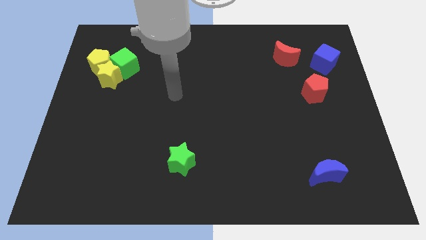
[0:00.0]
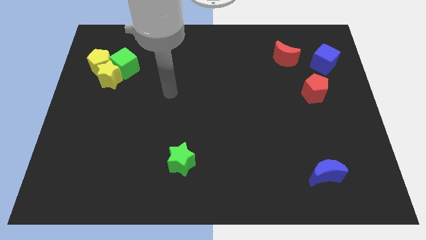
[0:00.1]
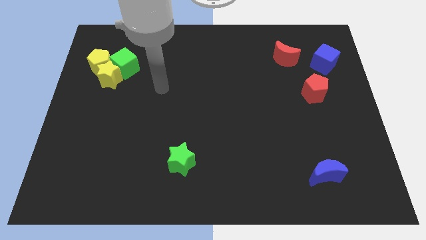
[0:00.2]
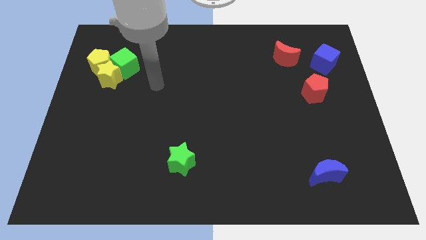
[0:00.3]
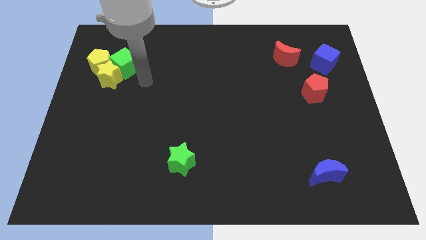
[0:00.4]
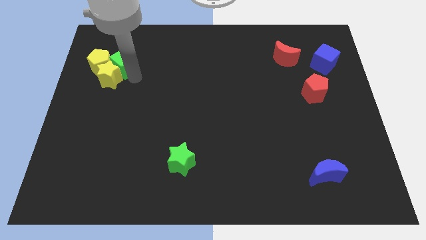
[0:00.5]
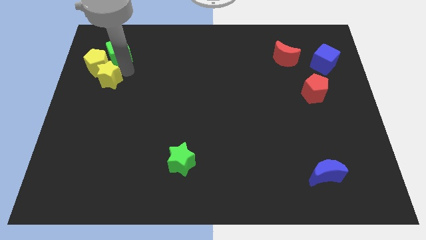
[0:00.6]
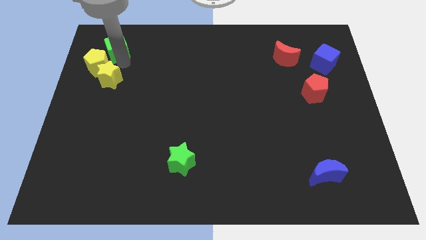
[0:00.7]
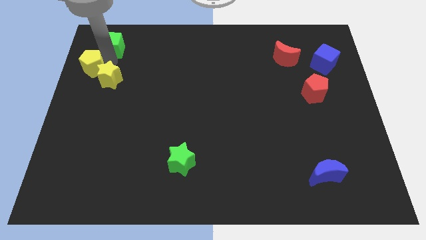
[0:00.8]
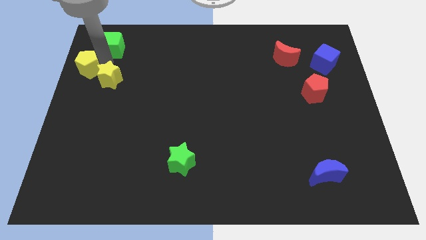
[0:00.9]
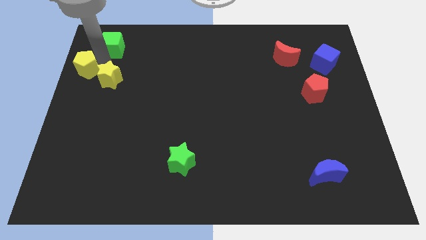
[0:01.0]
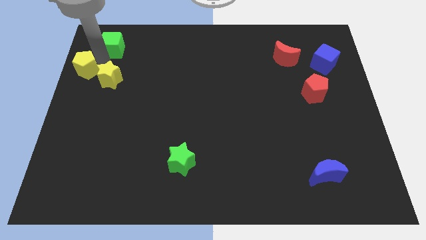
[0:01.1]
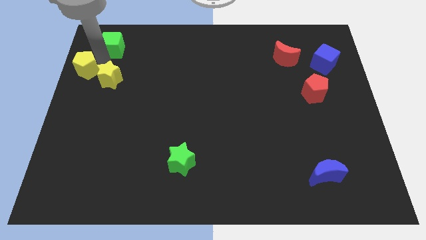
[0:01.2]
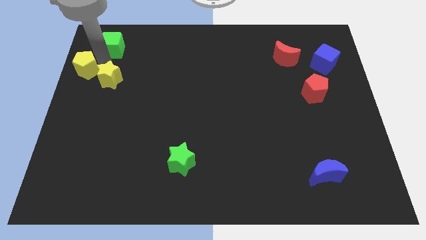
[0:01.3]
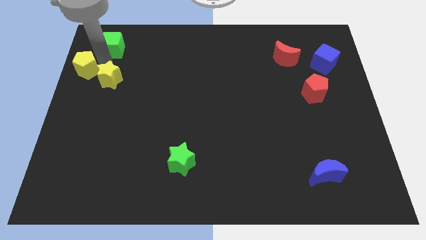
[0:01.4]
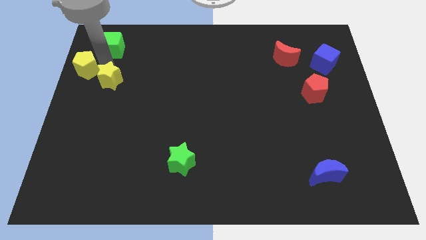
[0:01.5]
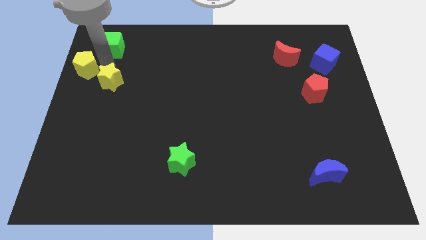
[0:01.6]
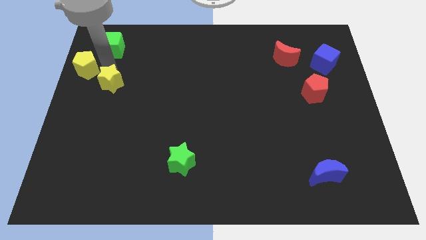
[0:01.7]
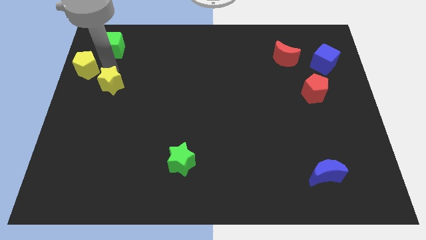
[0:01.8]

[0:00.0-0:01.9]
separate the yellow star from the yellow pentagon and green cube

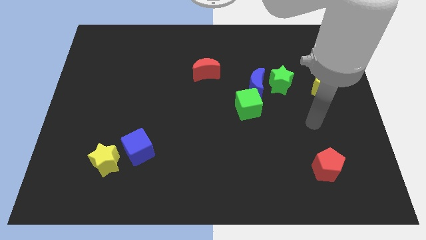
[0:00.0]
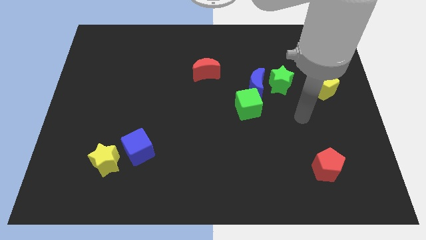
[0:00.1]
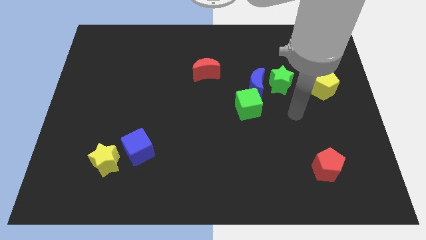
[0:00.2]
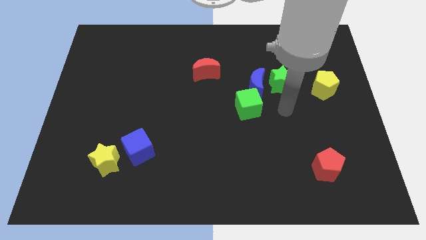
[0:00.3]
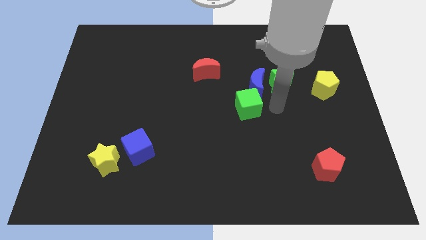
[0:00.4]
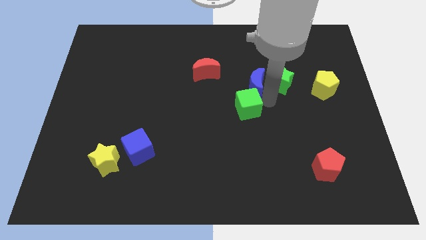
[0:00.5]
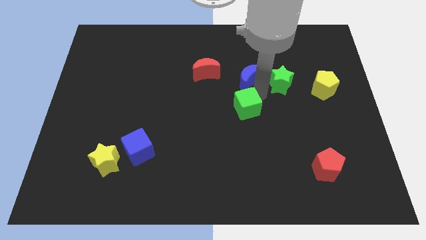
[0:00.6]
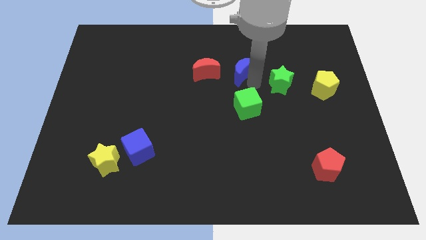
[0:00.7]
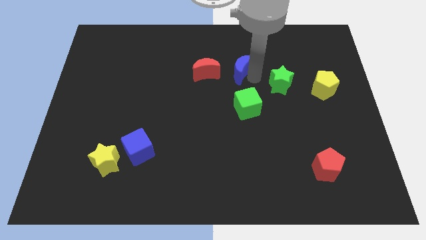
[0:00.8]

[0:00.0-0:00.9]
pull the green star apart from the blue moon

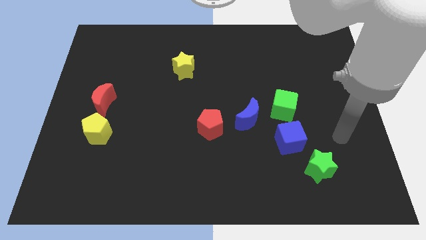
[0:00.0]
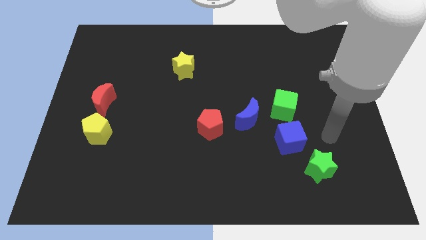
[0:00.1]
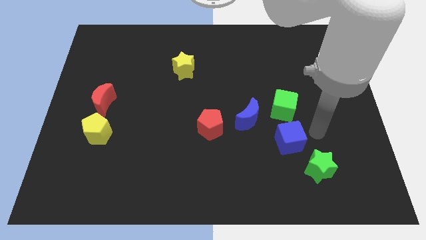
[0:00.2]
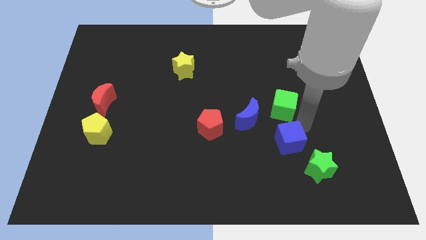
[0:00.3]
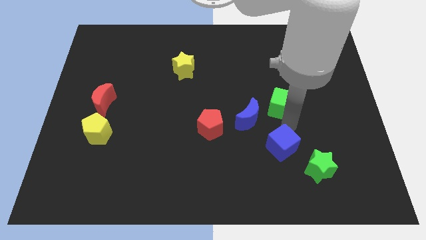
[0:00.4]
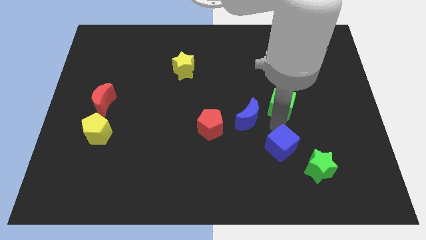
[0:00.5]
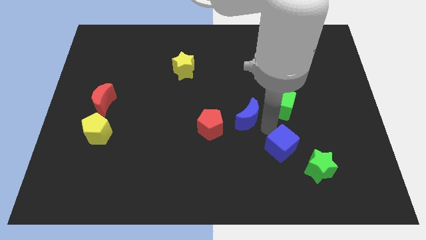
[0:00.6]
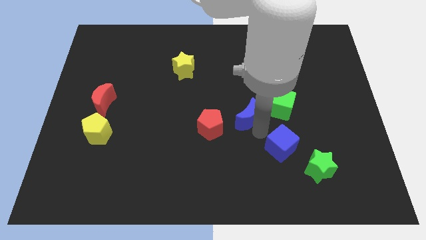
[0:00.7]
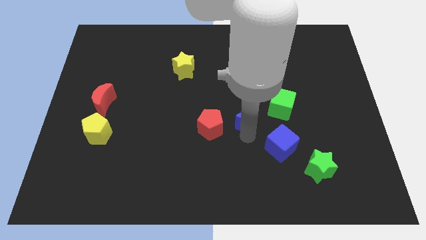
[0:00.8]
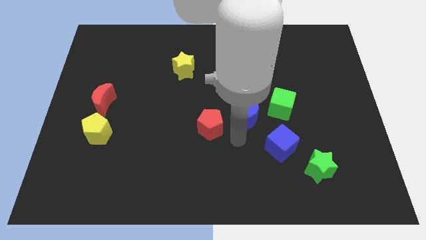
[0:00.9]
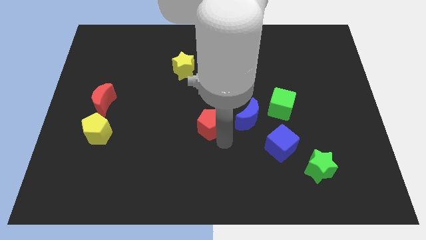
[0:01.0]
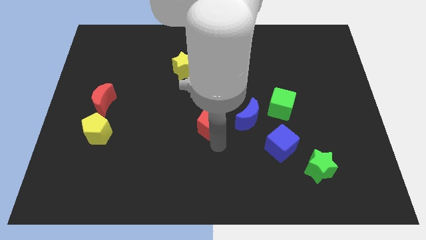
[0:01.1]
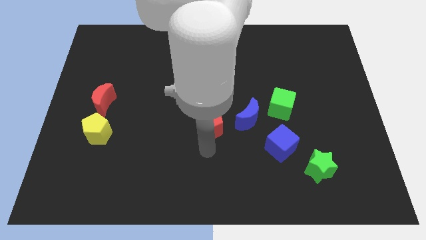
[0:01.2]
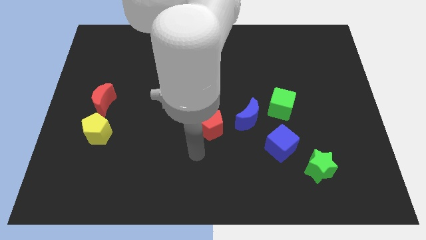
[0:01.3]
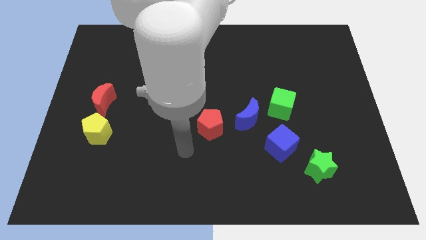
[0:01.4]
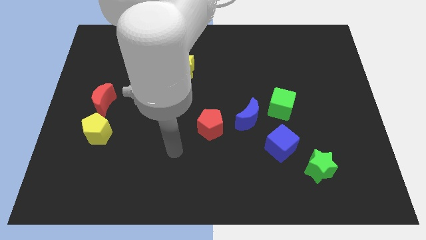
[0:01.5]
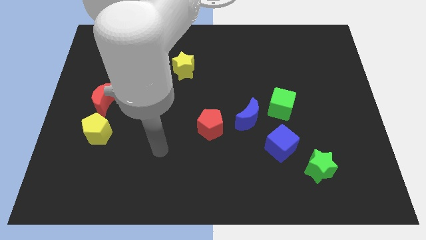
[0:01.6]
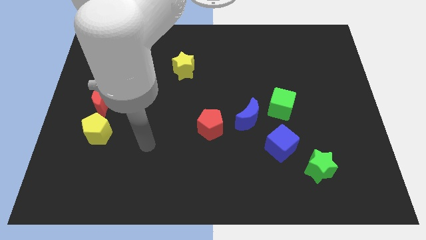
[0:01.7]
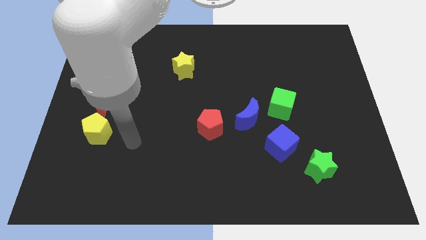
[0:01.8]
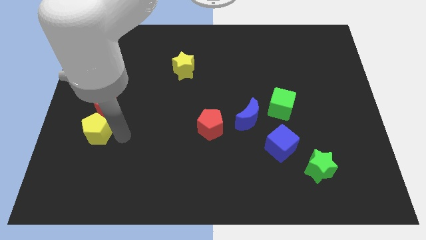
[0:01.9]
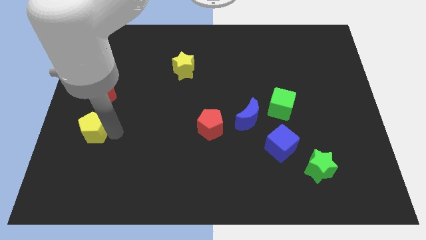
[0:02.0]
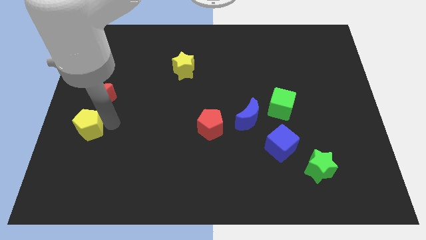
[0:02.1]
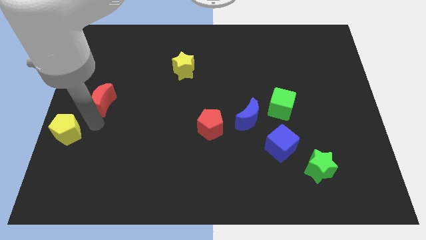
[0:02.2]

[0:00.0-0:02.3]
pull the red moon apart from the yellow pentagon

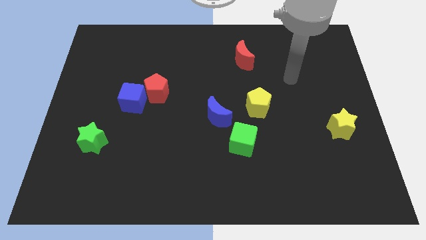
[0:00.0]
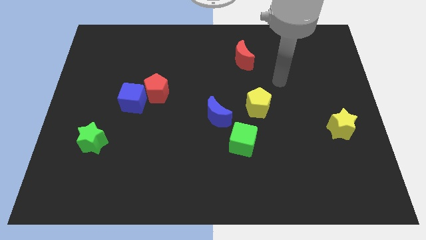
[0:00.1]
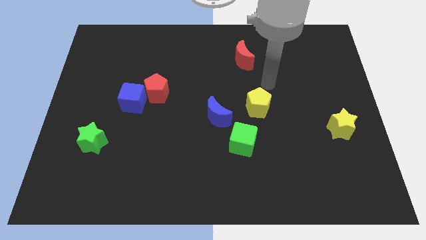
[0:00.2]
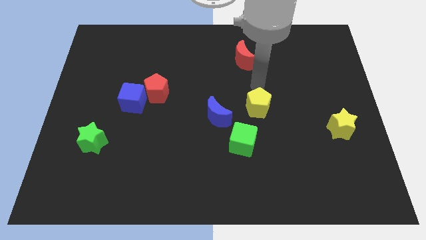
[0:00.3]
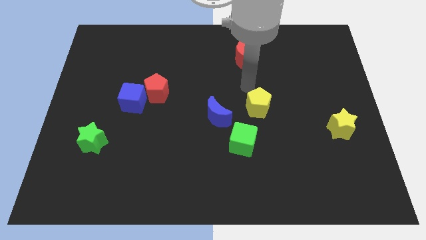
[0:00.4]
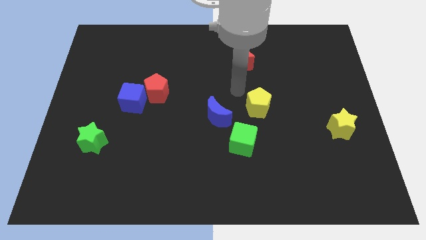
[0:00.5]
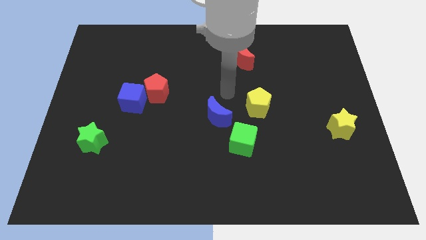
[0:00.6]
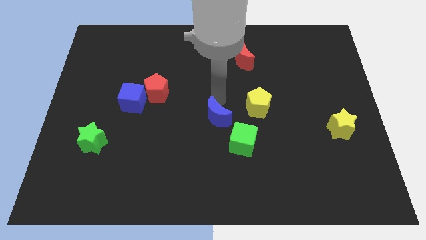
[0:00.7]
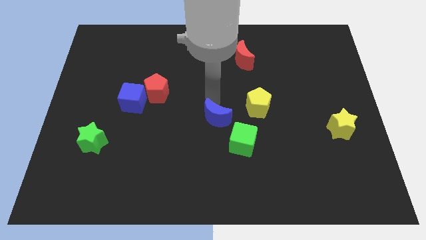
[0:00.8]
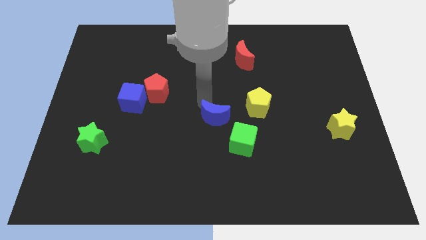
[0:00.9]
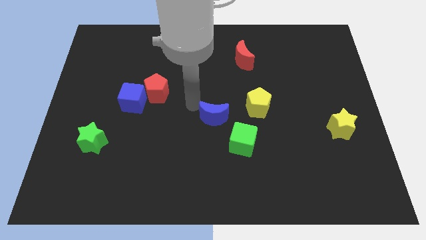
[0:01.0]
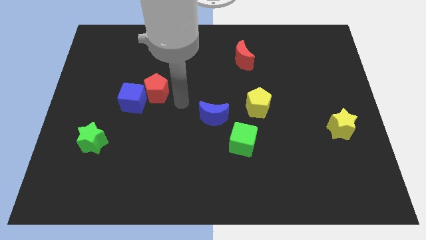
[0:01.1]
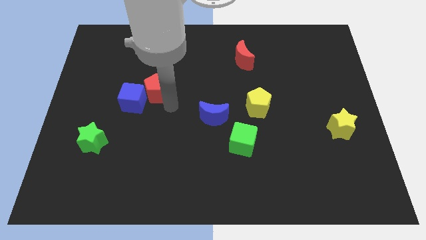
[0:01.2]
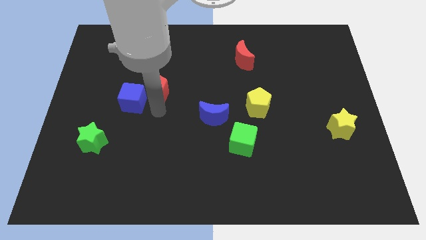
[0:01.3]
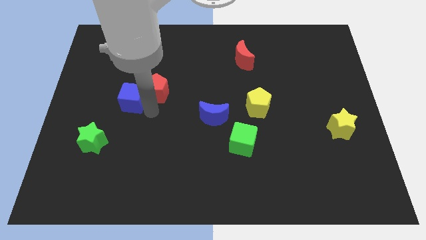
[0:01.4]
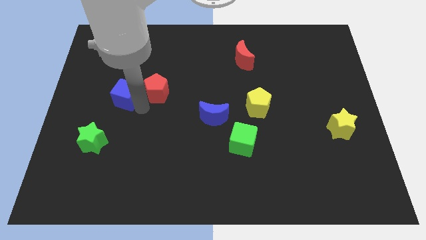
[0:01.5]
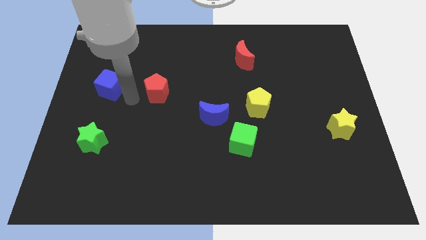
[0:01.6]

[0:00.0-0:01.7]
move the red pentagon away from the blue cube

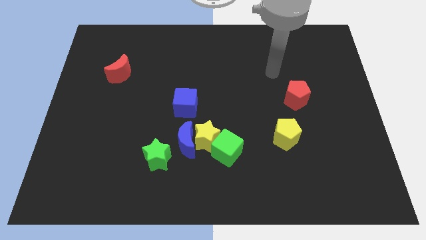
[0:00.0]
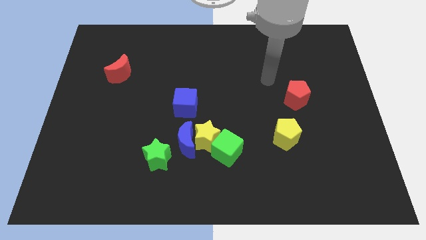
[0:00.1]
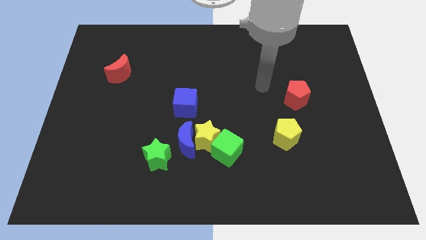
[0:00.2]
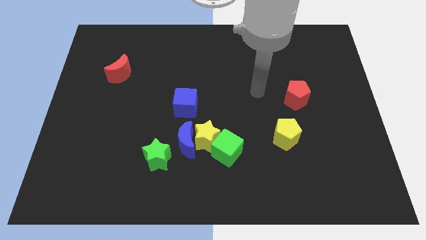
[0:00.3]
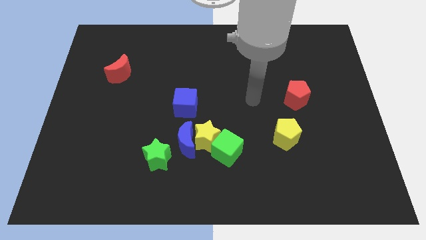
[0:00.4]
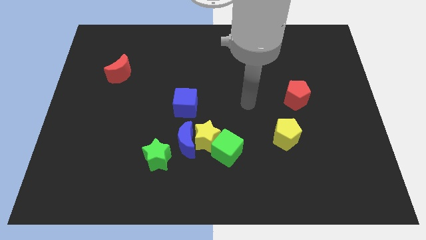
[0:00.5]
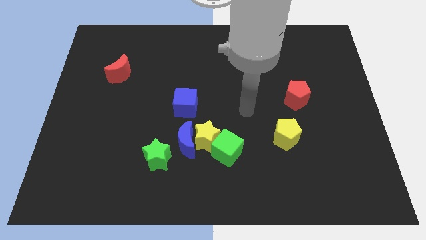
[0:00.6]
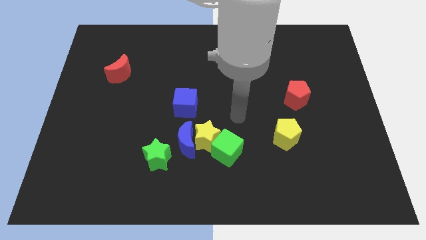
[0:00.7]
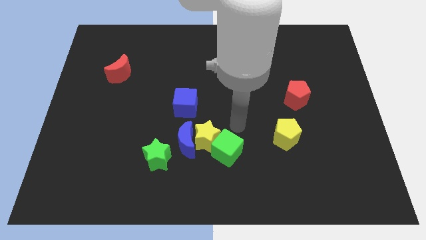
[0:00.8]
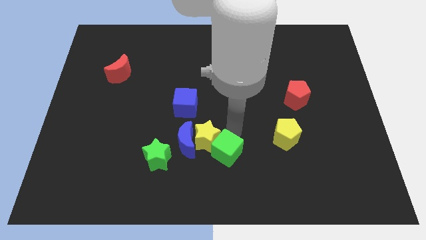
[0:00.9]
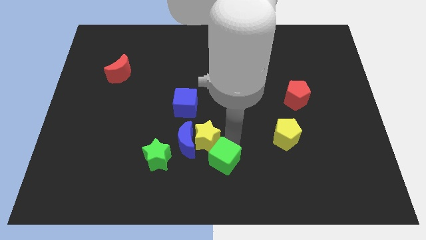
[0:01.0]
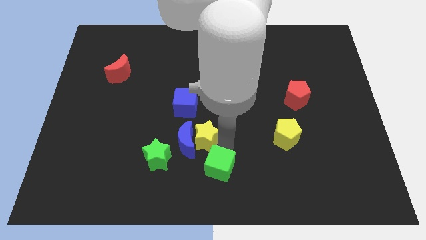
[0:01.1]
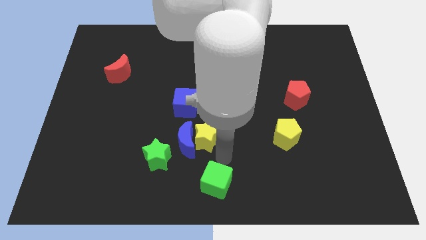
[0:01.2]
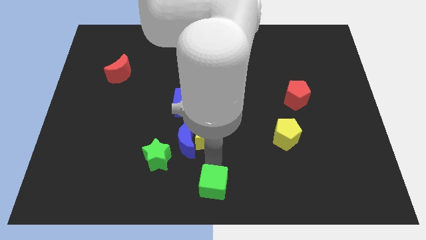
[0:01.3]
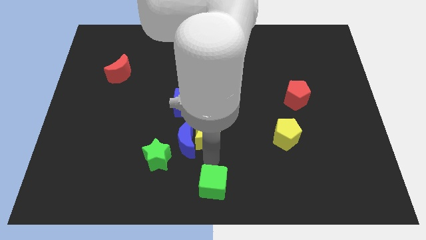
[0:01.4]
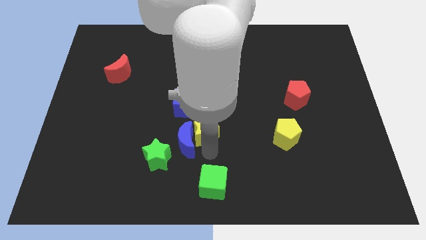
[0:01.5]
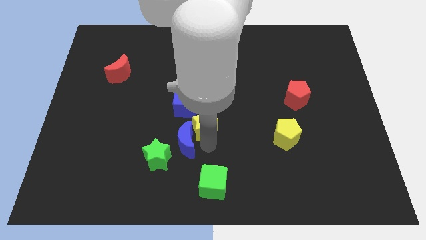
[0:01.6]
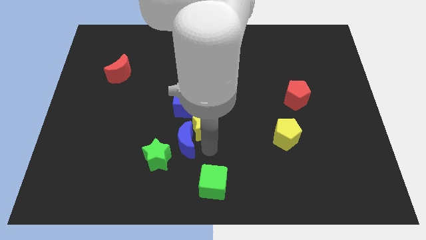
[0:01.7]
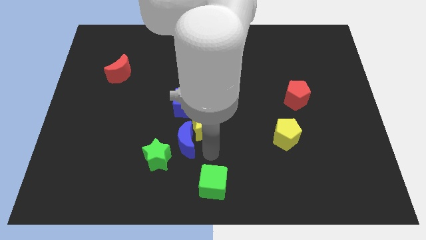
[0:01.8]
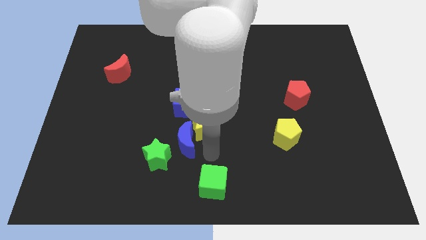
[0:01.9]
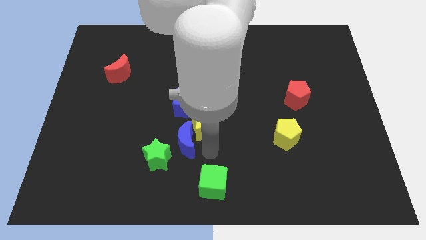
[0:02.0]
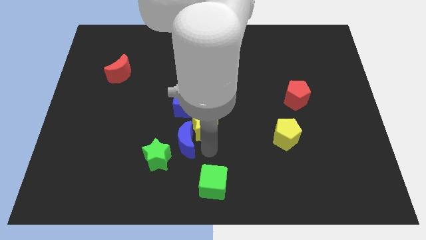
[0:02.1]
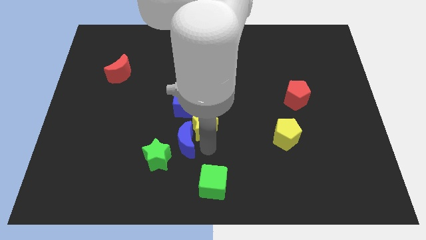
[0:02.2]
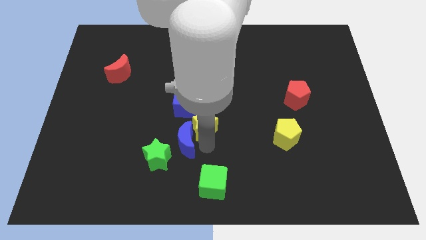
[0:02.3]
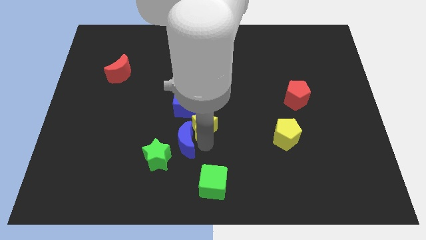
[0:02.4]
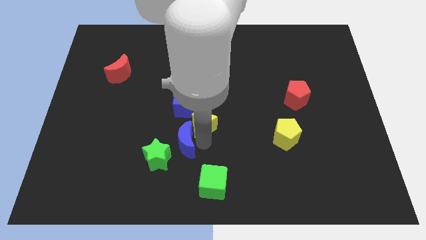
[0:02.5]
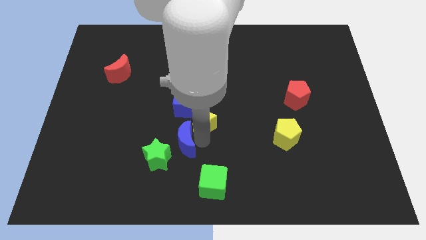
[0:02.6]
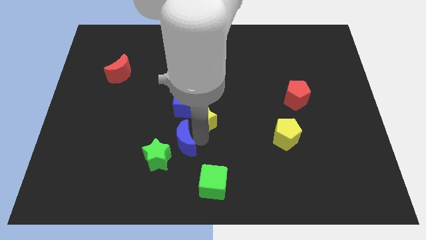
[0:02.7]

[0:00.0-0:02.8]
pull the yellow star apart from the blue moon and green cube
